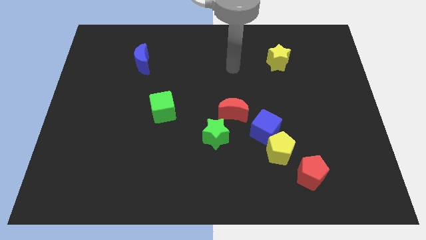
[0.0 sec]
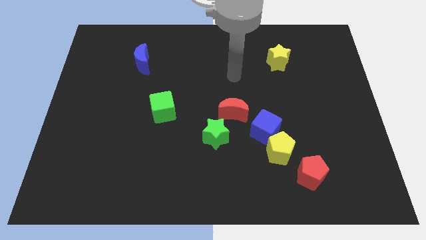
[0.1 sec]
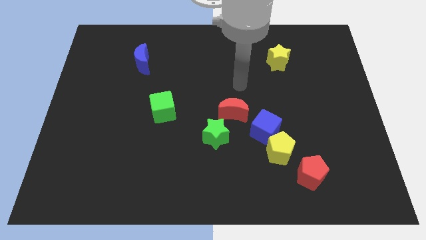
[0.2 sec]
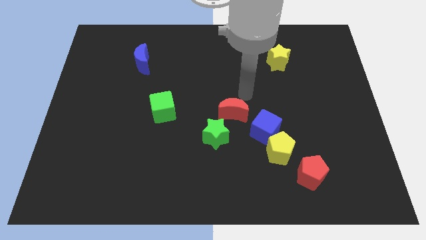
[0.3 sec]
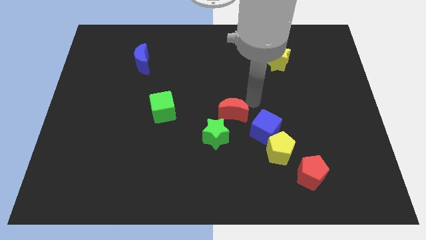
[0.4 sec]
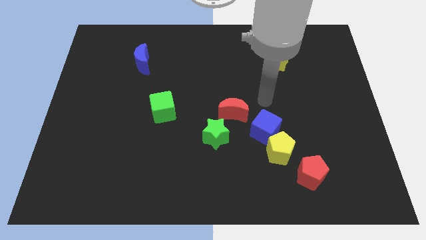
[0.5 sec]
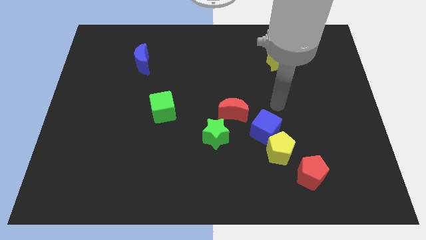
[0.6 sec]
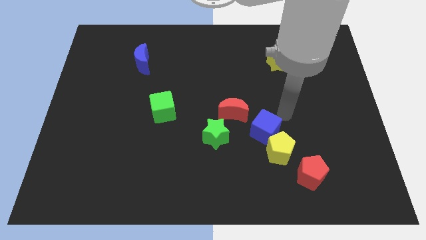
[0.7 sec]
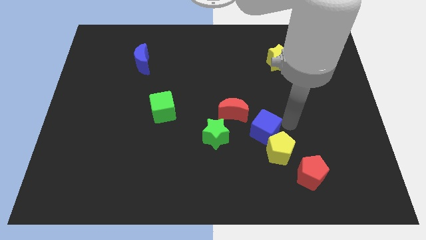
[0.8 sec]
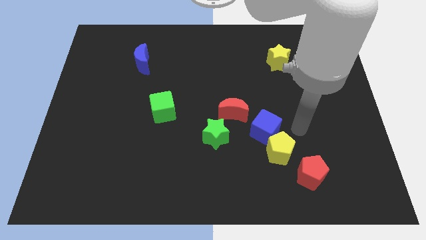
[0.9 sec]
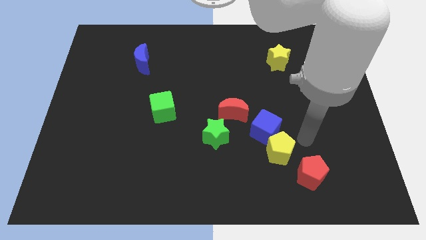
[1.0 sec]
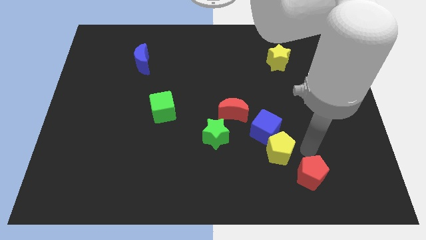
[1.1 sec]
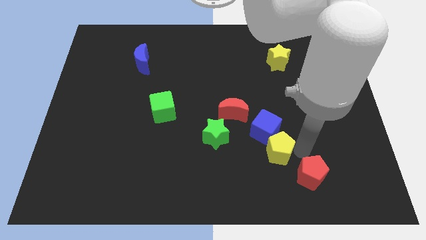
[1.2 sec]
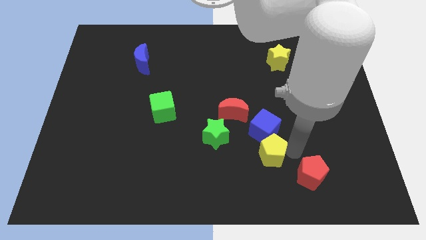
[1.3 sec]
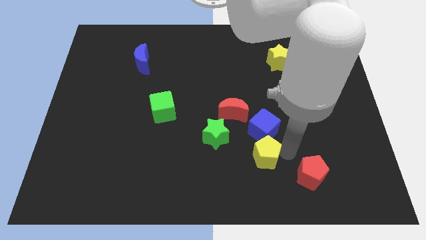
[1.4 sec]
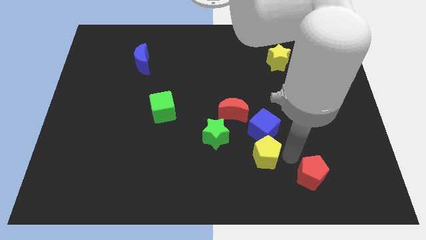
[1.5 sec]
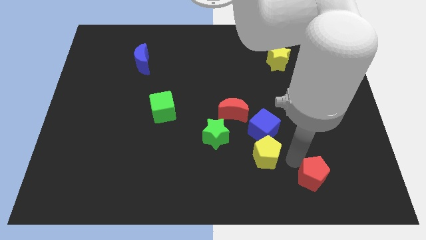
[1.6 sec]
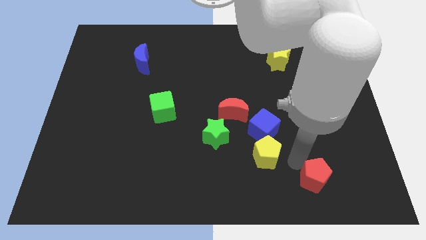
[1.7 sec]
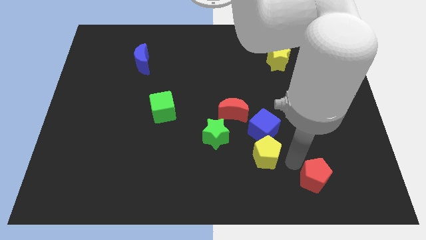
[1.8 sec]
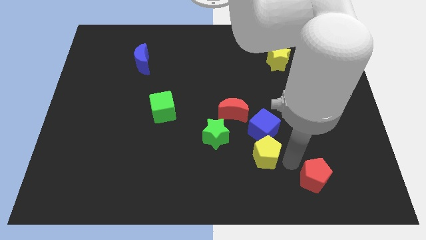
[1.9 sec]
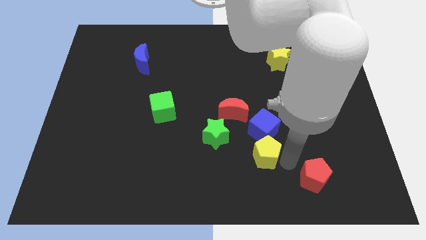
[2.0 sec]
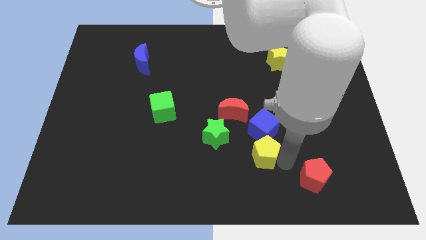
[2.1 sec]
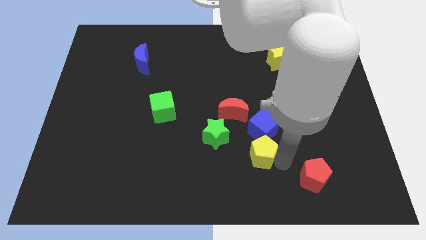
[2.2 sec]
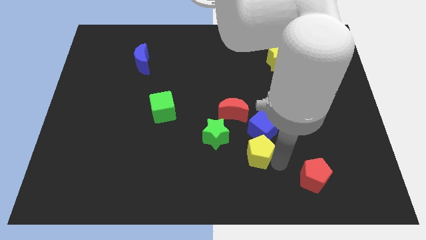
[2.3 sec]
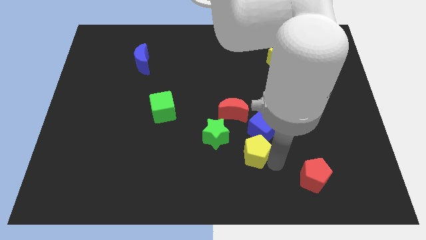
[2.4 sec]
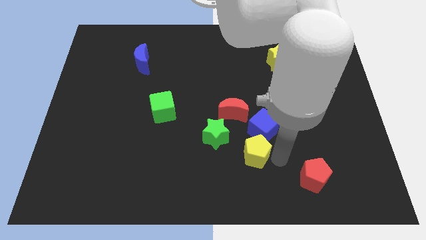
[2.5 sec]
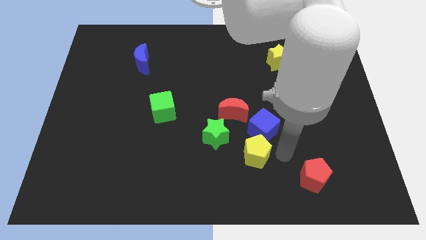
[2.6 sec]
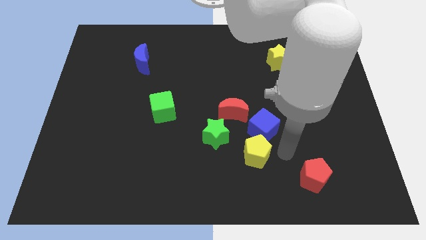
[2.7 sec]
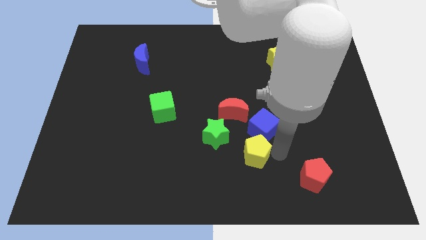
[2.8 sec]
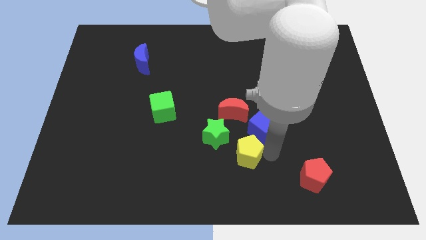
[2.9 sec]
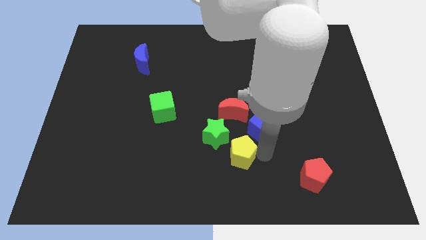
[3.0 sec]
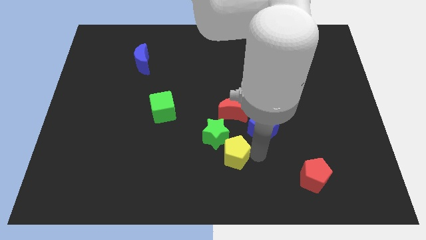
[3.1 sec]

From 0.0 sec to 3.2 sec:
separate the yellow pentagon from the blue cube and red pentagon

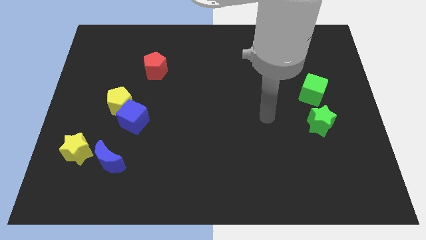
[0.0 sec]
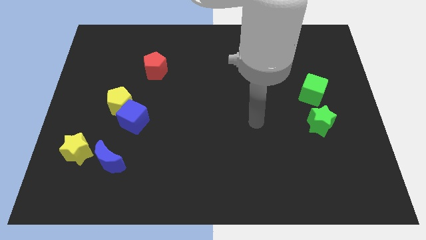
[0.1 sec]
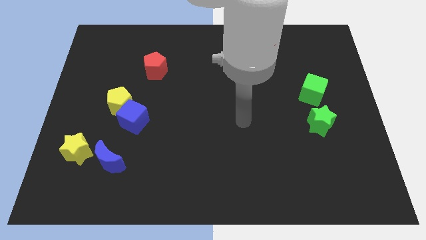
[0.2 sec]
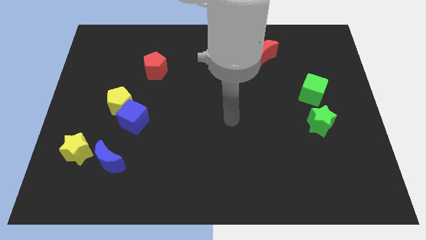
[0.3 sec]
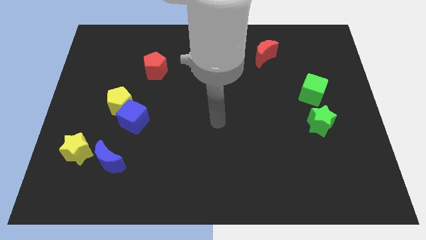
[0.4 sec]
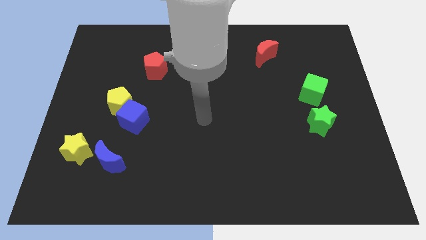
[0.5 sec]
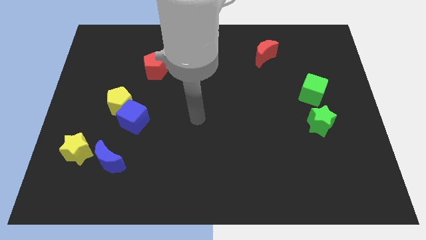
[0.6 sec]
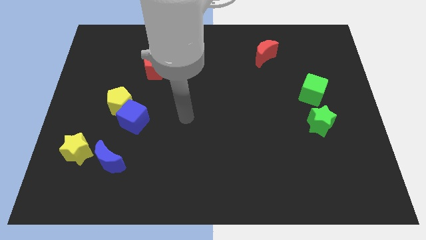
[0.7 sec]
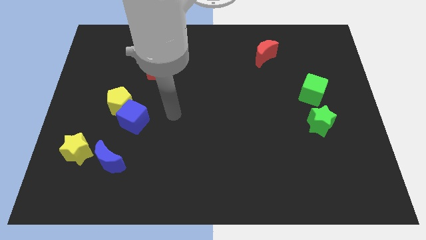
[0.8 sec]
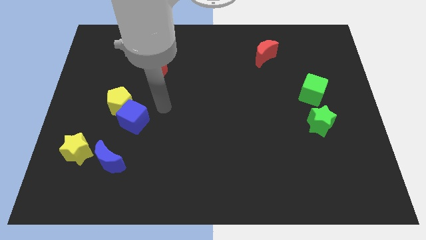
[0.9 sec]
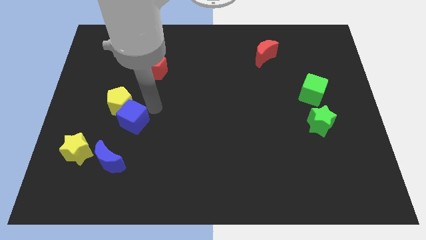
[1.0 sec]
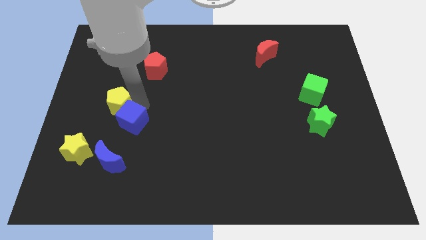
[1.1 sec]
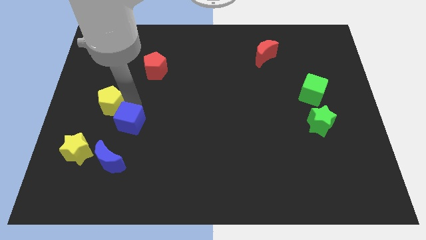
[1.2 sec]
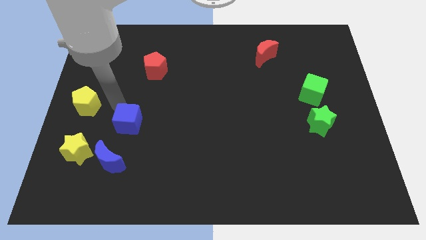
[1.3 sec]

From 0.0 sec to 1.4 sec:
pull the blue cube apart from the yellow pentagon

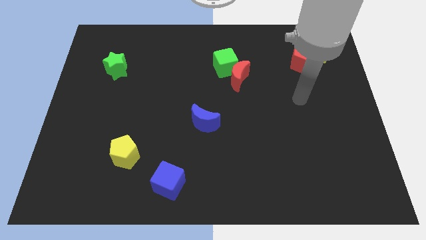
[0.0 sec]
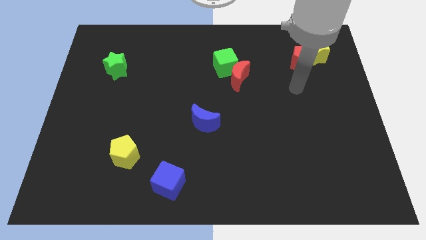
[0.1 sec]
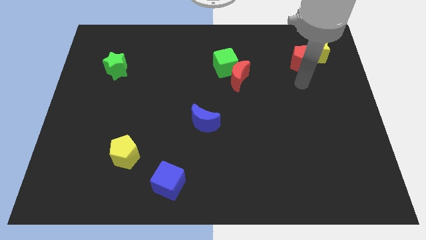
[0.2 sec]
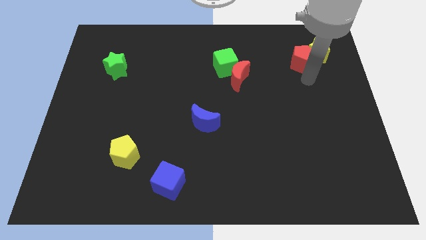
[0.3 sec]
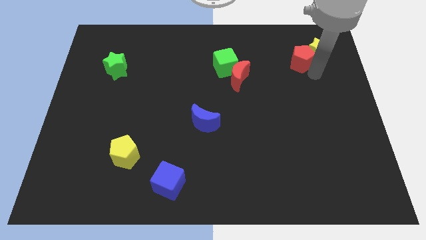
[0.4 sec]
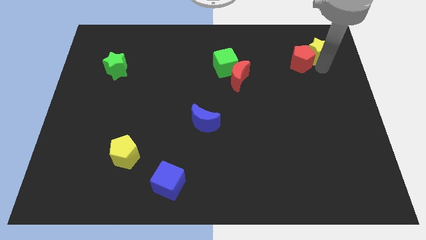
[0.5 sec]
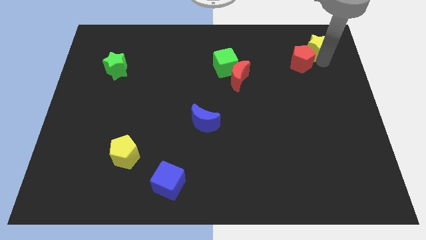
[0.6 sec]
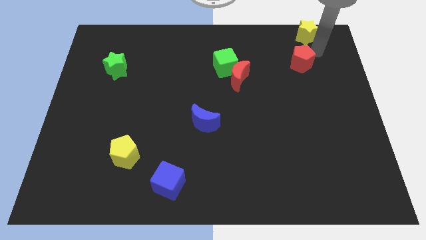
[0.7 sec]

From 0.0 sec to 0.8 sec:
move the red pentagon away from the yellow star

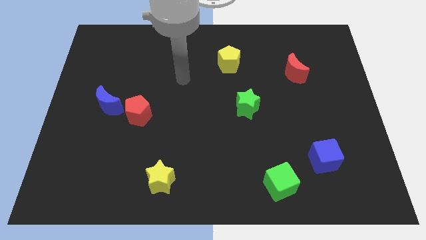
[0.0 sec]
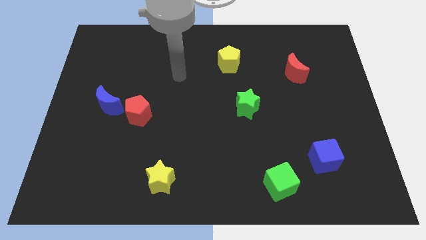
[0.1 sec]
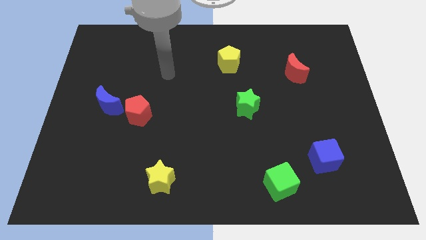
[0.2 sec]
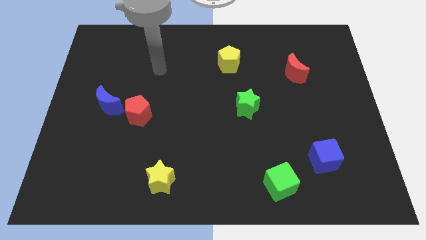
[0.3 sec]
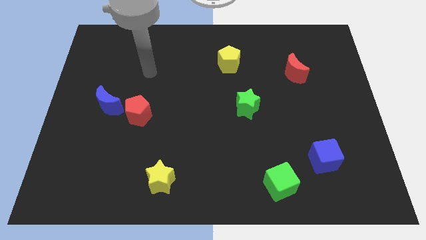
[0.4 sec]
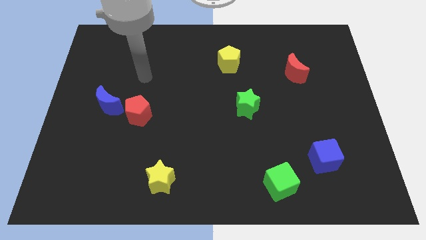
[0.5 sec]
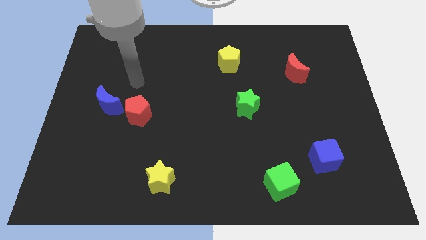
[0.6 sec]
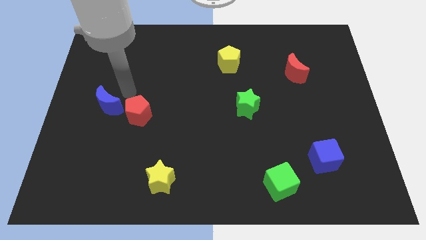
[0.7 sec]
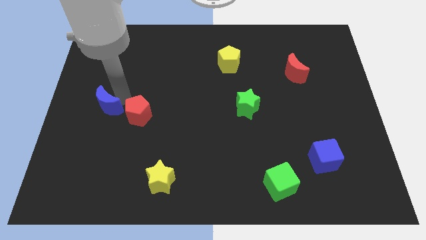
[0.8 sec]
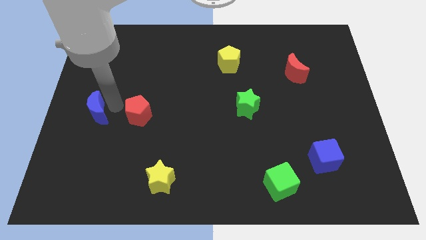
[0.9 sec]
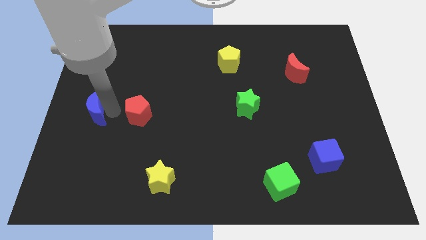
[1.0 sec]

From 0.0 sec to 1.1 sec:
move the red pentagon away from the blue moon

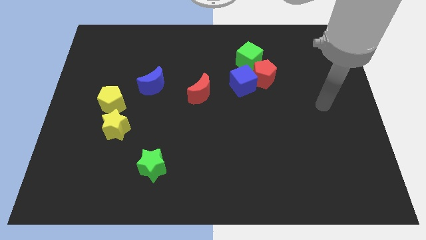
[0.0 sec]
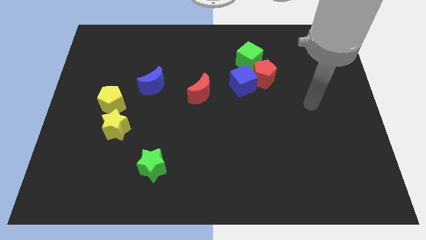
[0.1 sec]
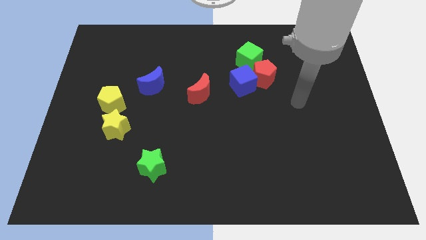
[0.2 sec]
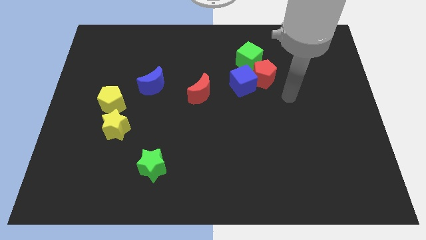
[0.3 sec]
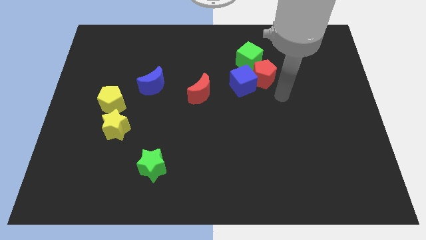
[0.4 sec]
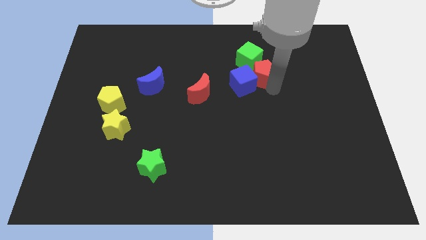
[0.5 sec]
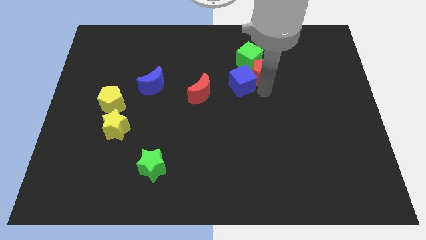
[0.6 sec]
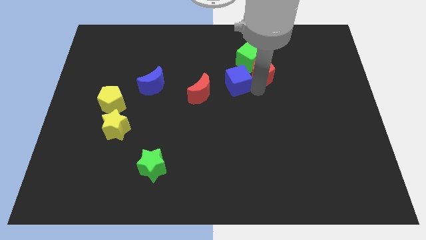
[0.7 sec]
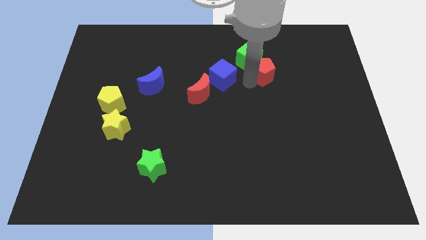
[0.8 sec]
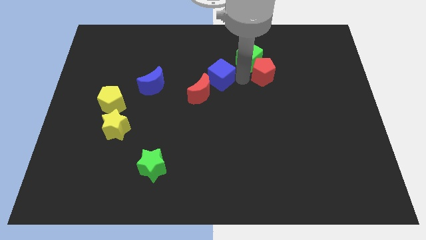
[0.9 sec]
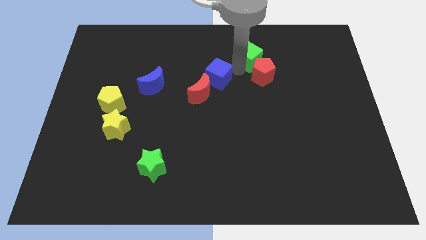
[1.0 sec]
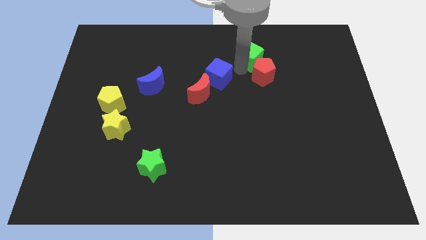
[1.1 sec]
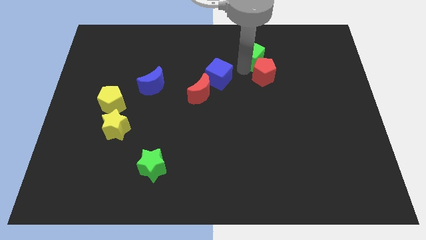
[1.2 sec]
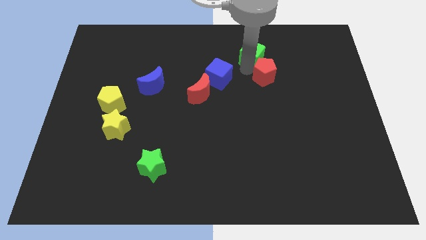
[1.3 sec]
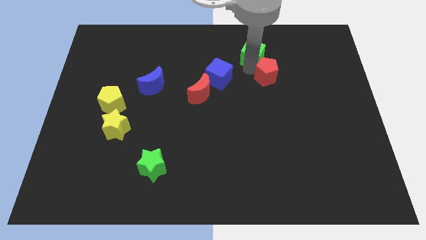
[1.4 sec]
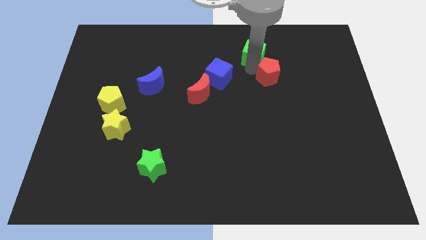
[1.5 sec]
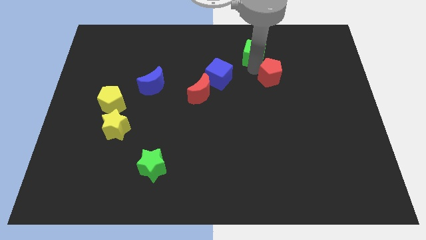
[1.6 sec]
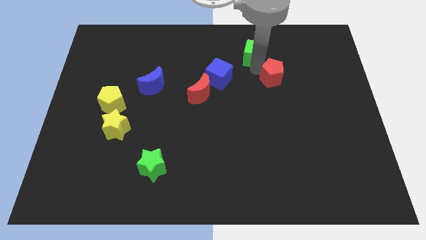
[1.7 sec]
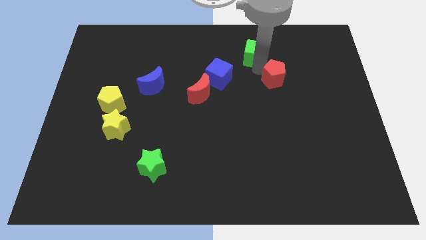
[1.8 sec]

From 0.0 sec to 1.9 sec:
pull the red pentagon apart from the blue cube and green cube

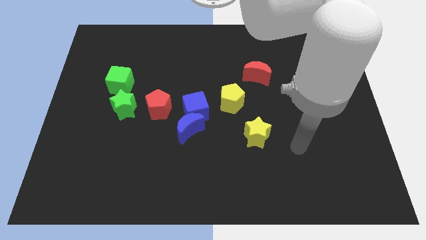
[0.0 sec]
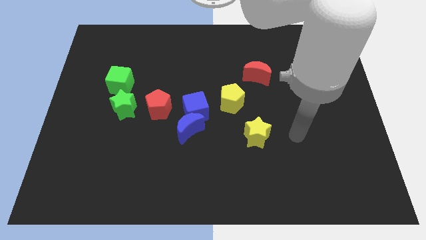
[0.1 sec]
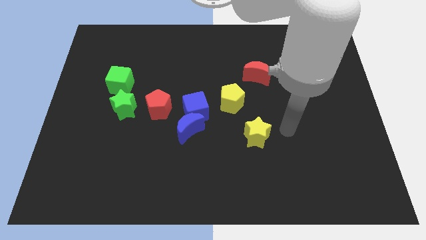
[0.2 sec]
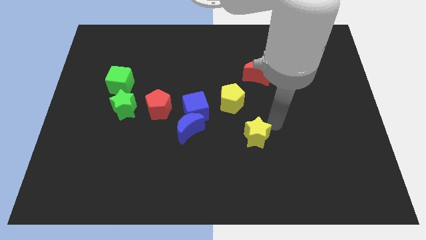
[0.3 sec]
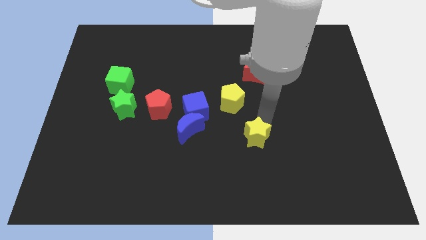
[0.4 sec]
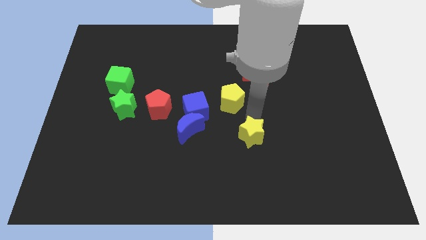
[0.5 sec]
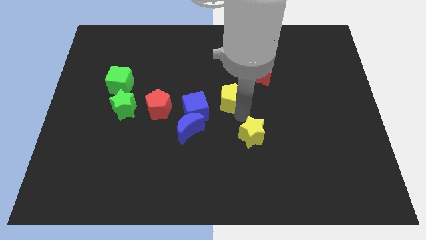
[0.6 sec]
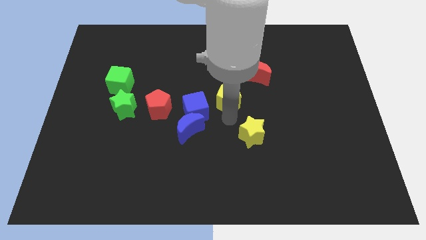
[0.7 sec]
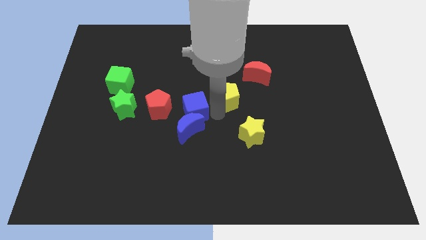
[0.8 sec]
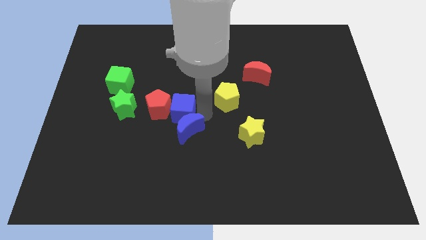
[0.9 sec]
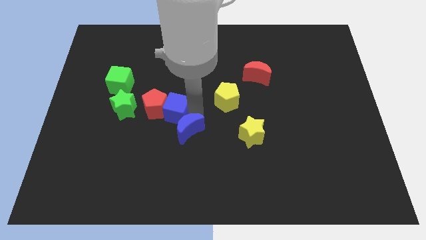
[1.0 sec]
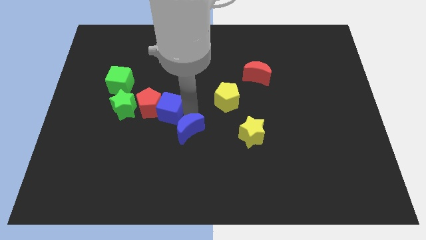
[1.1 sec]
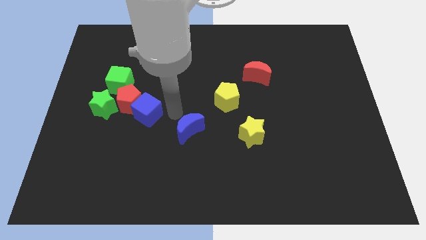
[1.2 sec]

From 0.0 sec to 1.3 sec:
pull the blue moon apart from the blue cube and red pentagon
